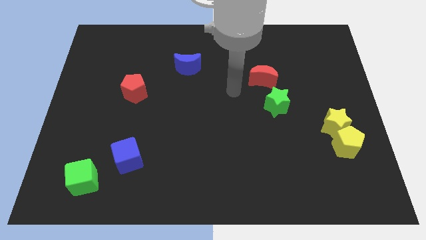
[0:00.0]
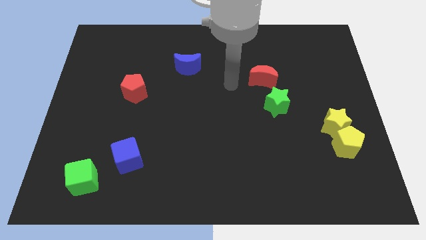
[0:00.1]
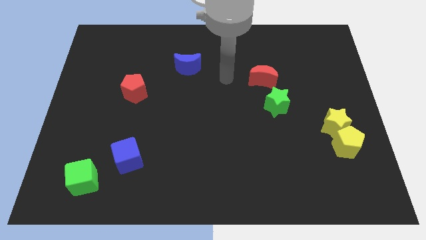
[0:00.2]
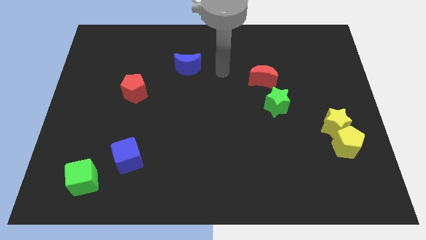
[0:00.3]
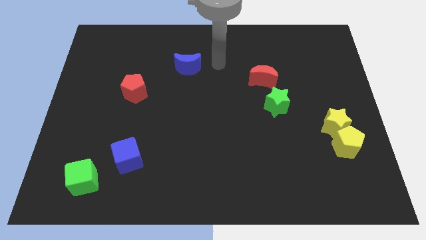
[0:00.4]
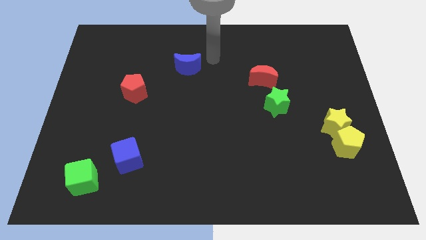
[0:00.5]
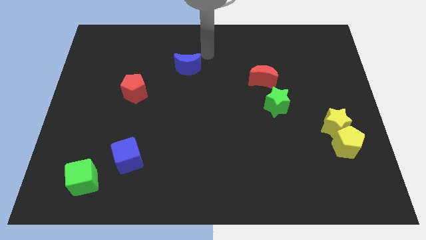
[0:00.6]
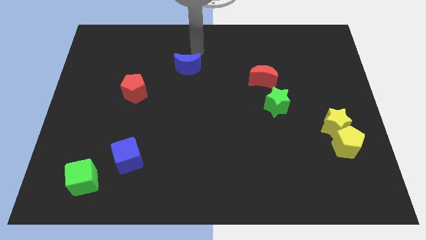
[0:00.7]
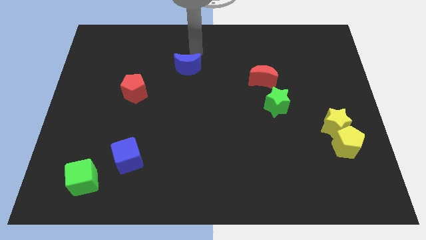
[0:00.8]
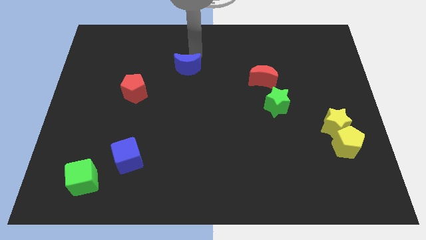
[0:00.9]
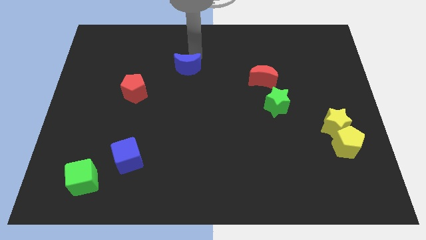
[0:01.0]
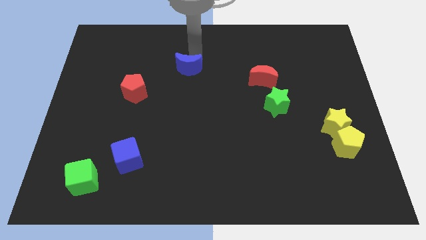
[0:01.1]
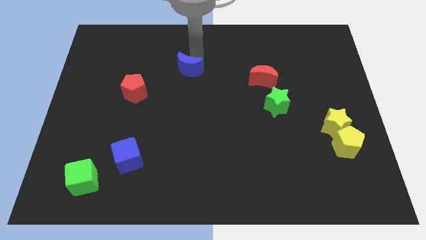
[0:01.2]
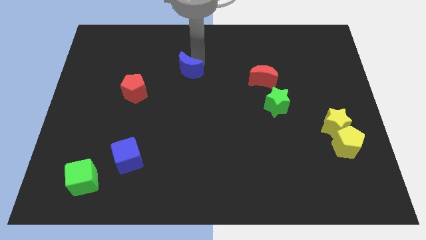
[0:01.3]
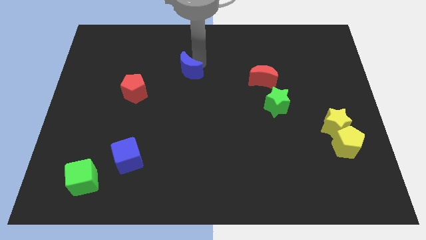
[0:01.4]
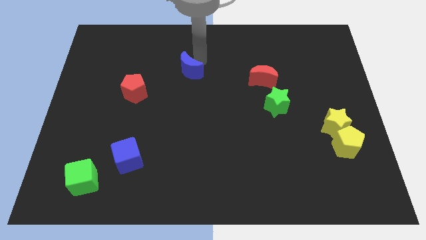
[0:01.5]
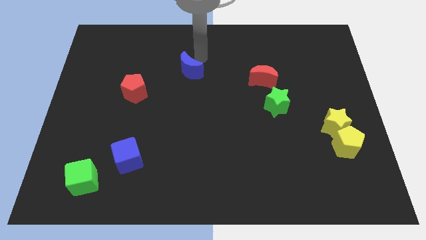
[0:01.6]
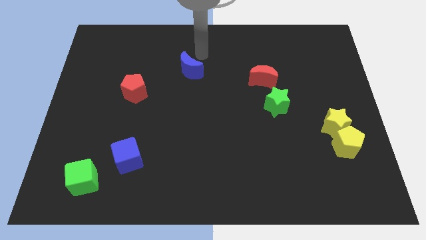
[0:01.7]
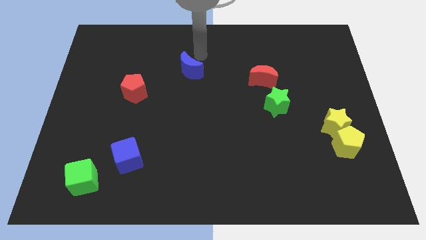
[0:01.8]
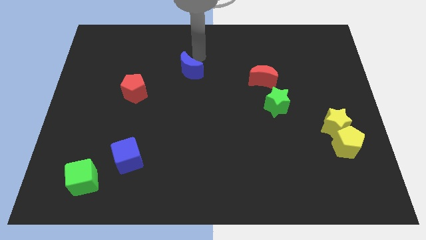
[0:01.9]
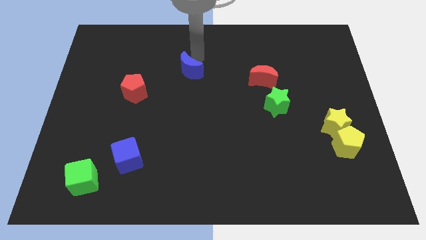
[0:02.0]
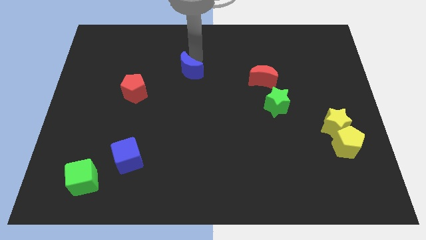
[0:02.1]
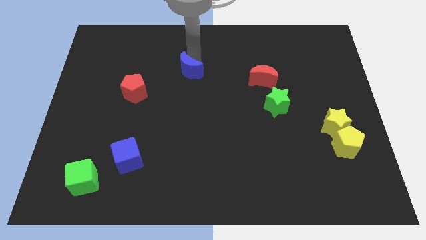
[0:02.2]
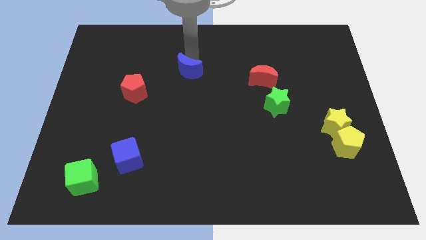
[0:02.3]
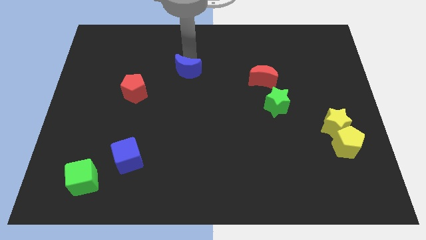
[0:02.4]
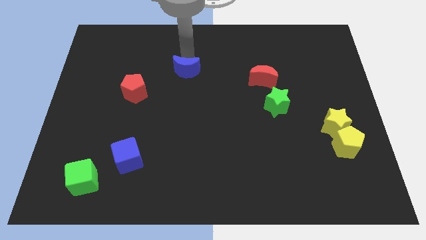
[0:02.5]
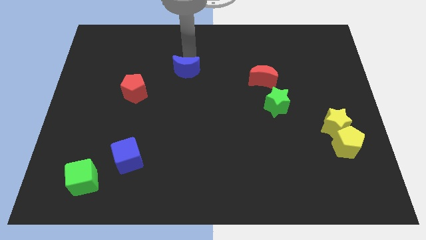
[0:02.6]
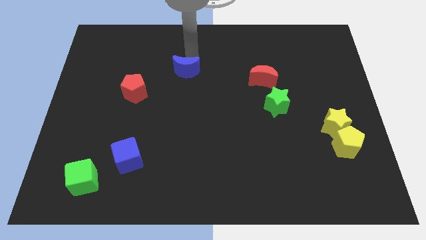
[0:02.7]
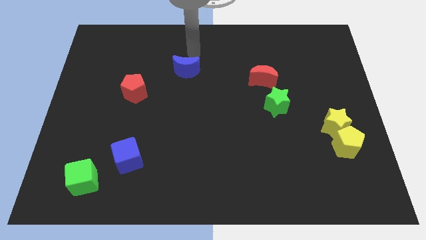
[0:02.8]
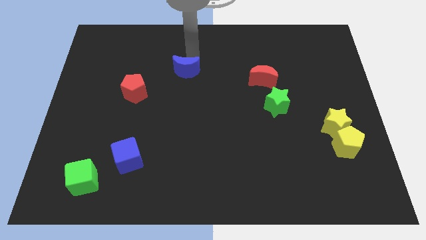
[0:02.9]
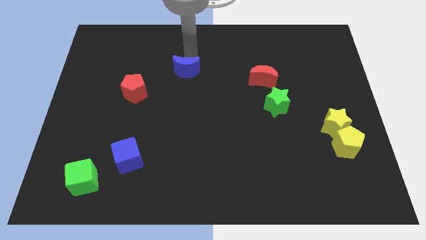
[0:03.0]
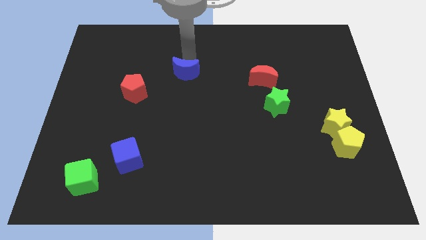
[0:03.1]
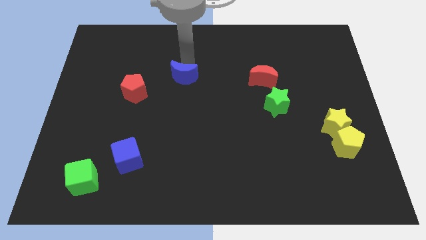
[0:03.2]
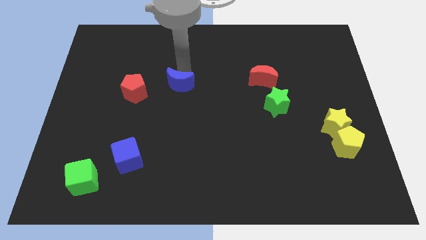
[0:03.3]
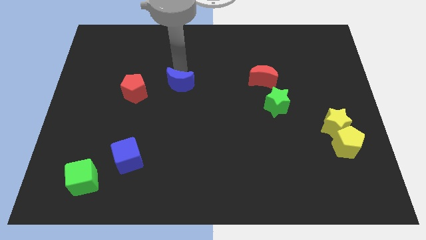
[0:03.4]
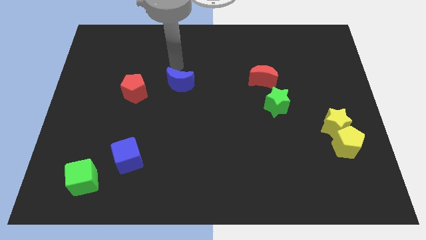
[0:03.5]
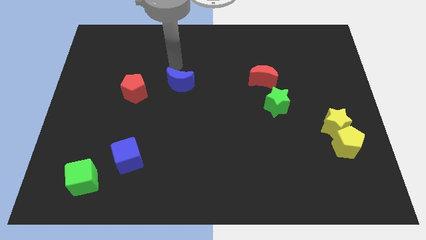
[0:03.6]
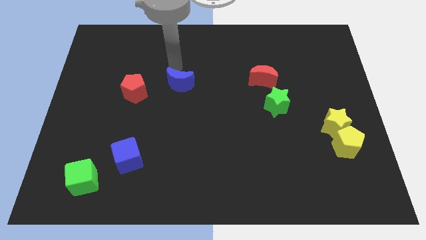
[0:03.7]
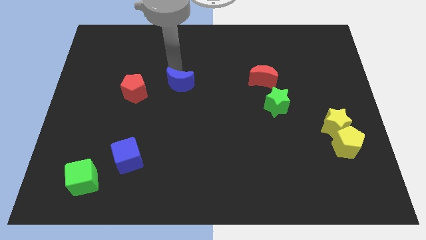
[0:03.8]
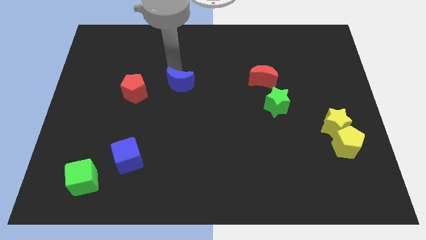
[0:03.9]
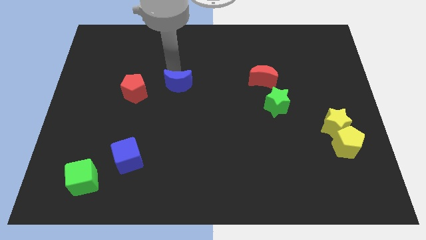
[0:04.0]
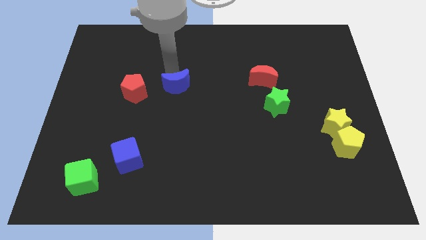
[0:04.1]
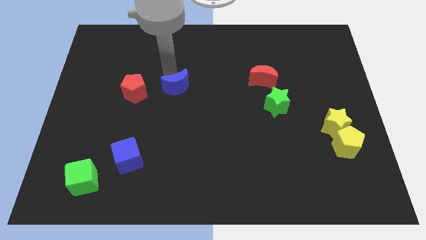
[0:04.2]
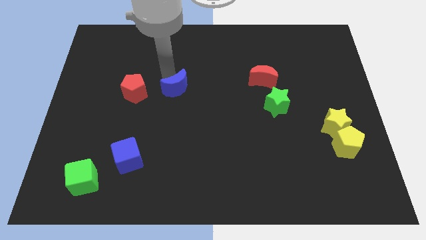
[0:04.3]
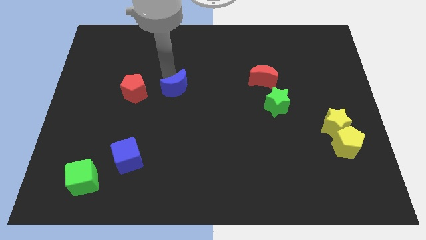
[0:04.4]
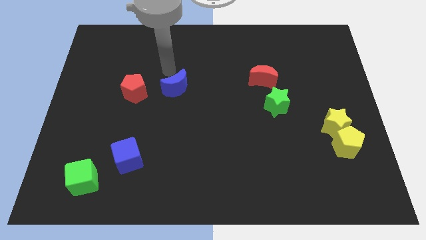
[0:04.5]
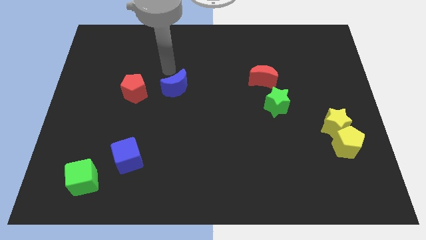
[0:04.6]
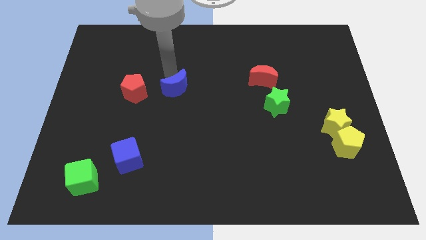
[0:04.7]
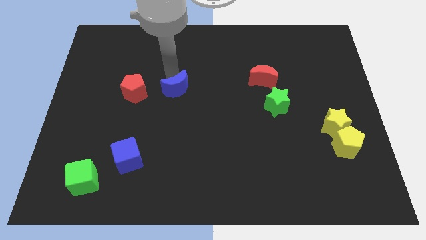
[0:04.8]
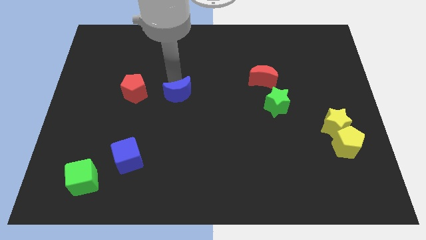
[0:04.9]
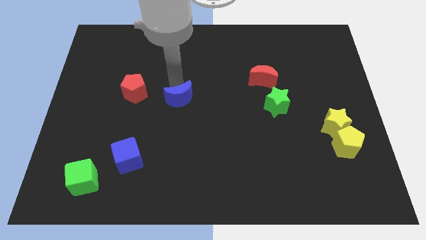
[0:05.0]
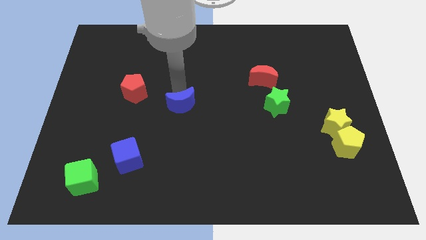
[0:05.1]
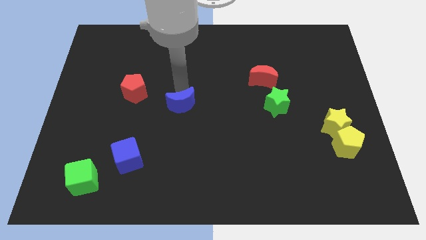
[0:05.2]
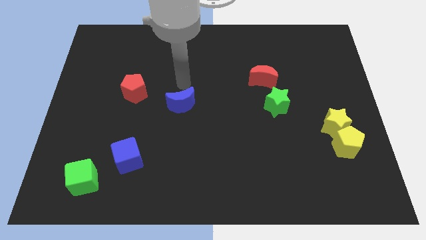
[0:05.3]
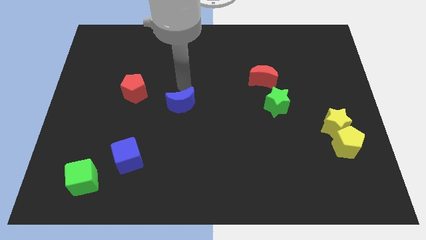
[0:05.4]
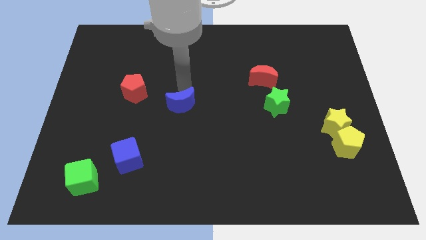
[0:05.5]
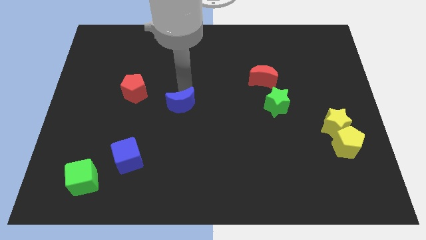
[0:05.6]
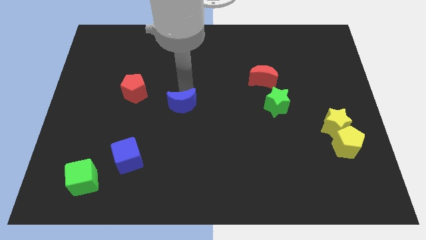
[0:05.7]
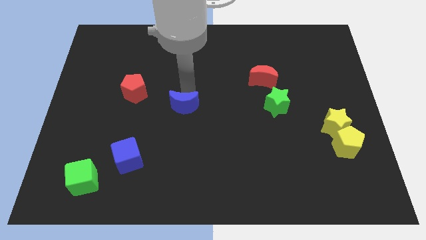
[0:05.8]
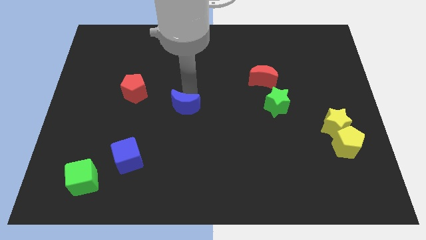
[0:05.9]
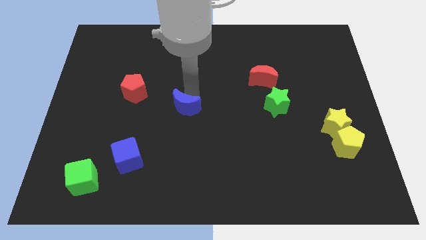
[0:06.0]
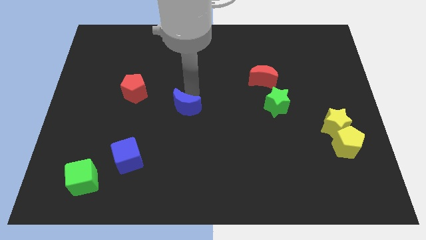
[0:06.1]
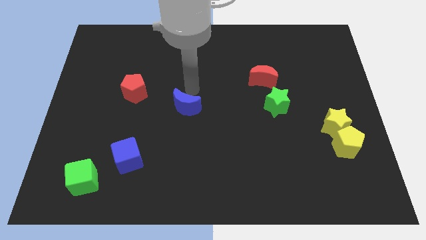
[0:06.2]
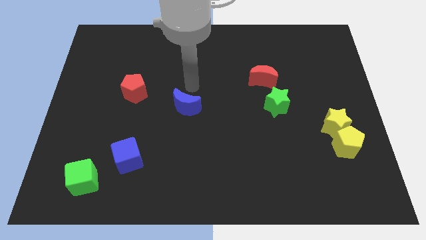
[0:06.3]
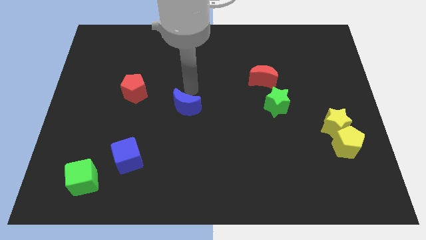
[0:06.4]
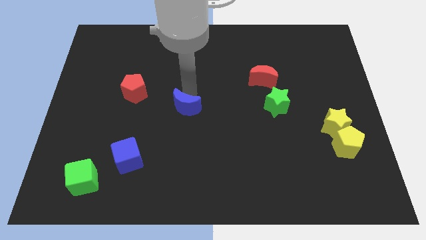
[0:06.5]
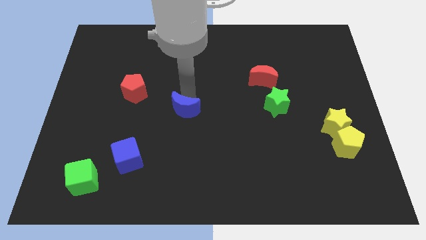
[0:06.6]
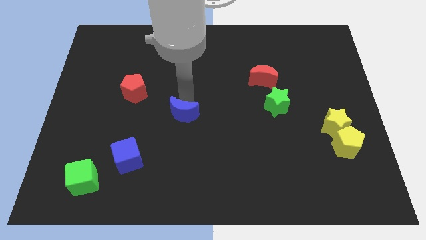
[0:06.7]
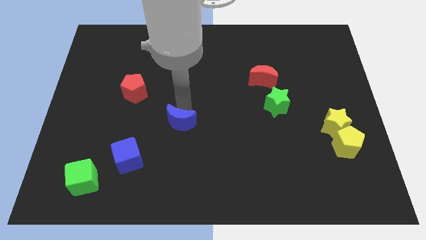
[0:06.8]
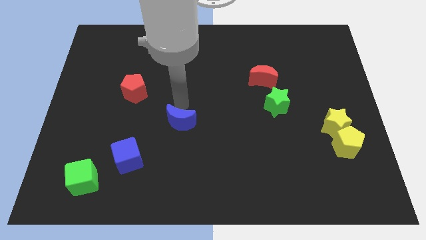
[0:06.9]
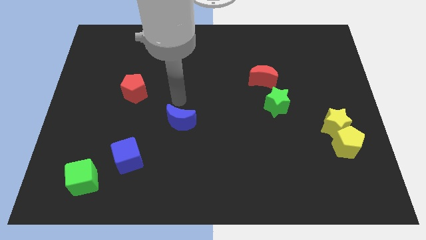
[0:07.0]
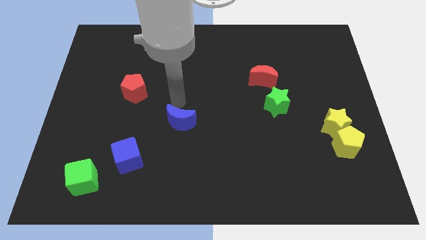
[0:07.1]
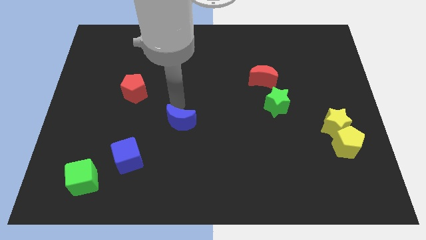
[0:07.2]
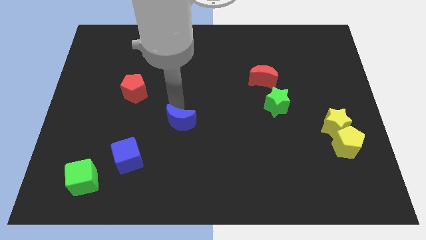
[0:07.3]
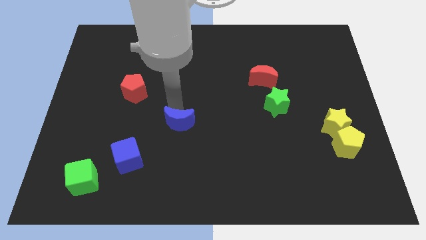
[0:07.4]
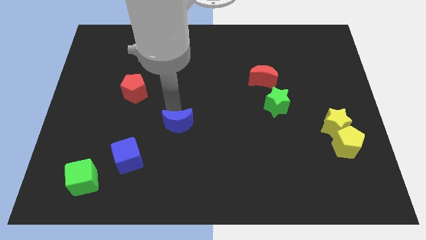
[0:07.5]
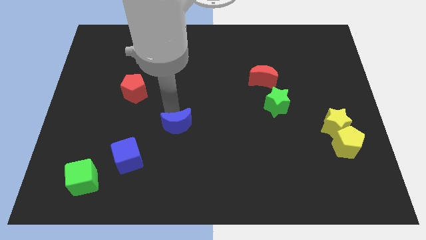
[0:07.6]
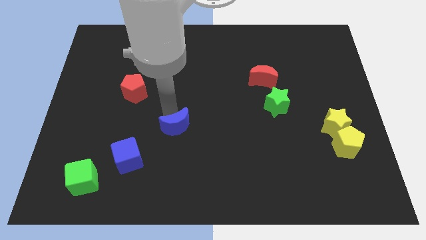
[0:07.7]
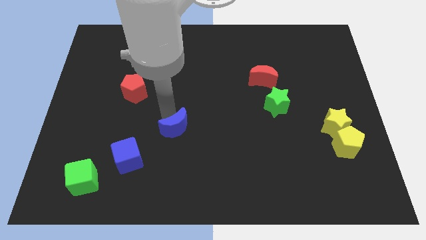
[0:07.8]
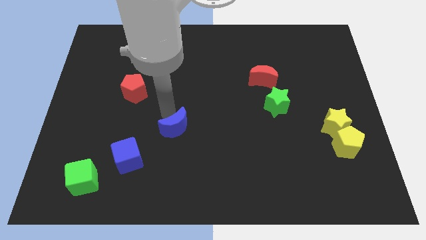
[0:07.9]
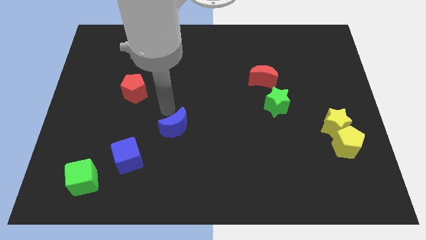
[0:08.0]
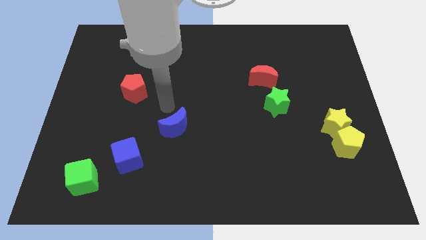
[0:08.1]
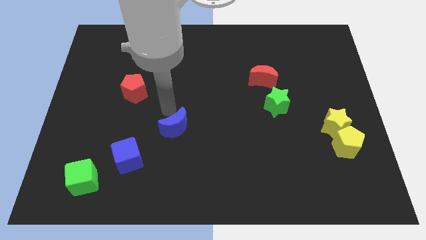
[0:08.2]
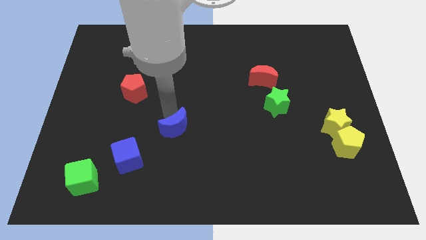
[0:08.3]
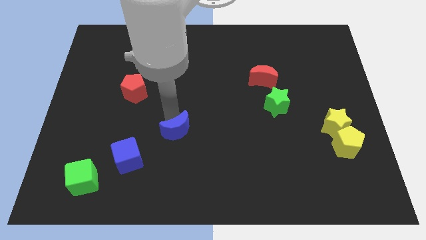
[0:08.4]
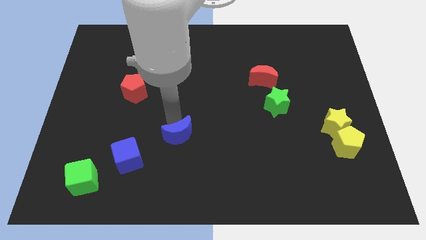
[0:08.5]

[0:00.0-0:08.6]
move the blue moon down
